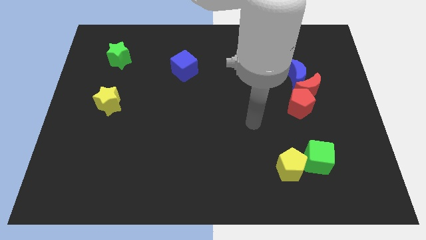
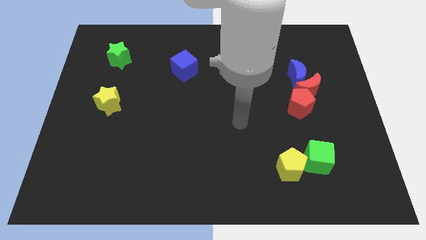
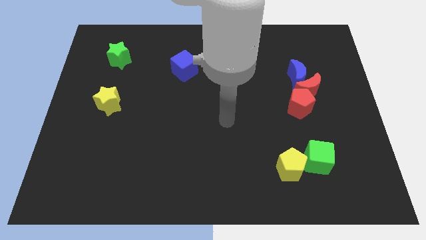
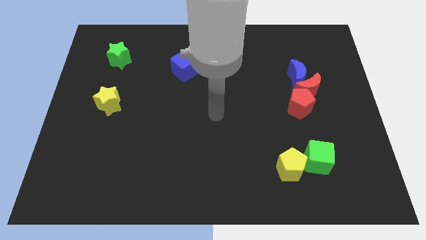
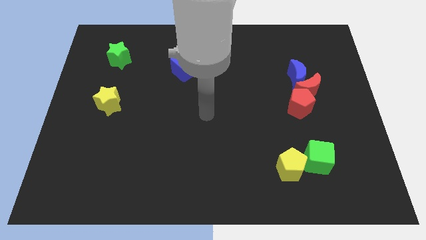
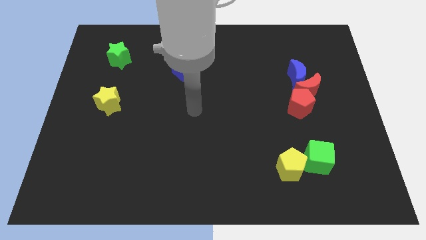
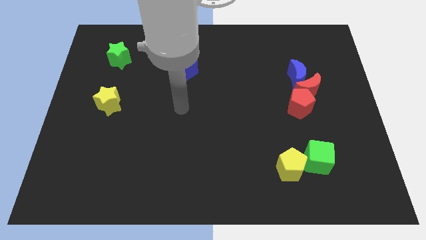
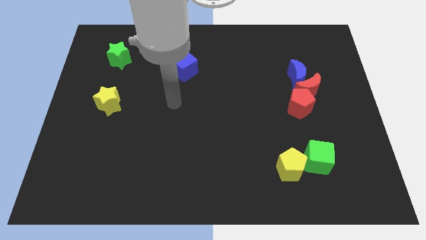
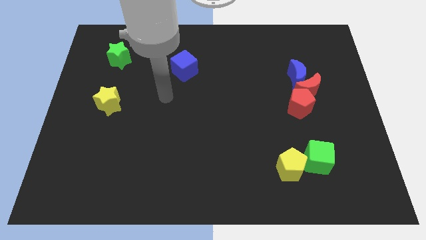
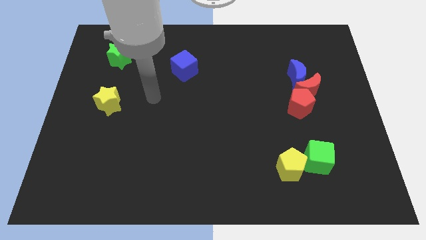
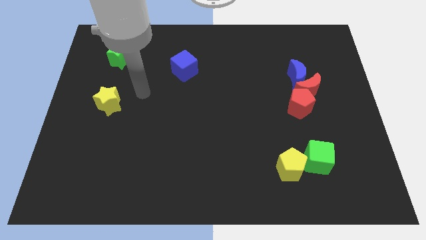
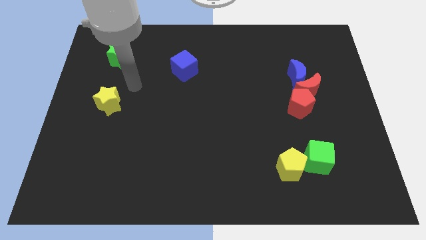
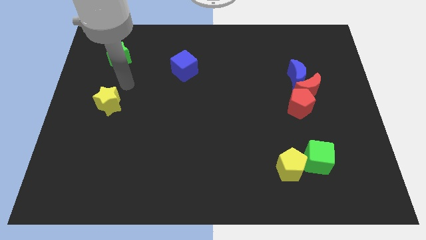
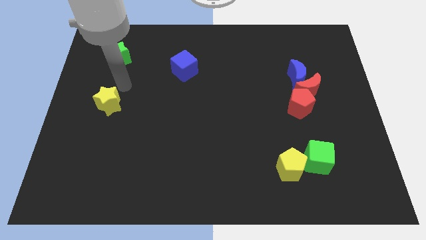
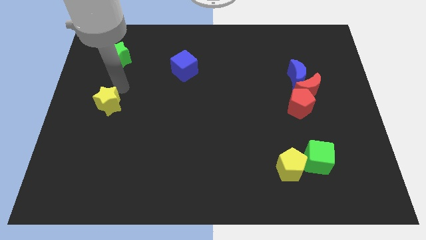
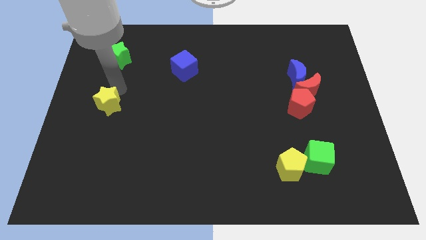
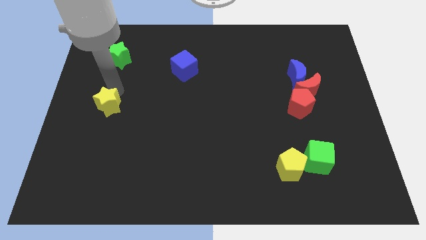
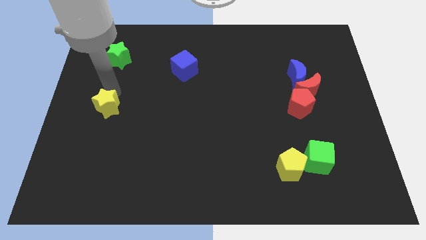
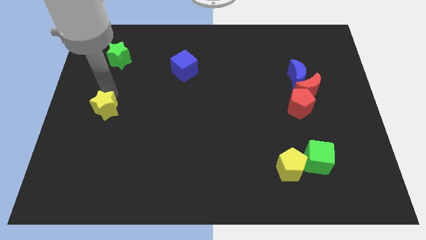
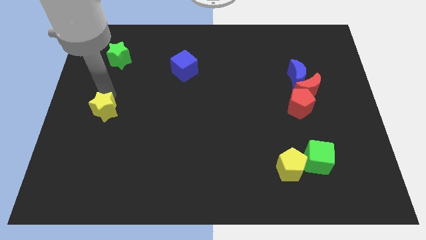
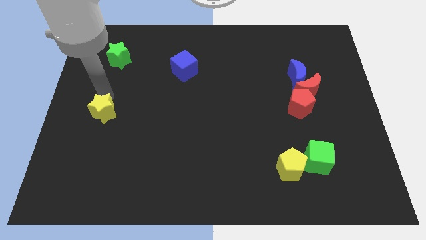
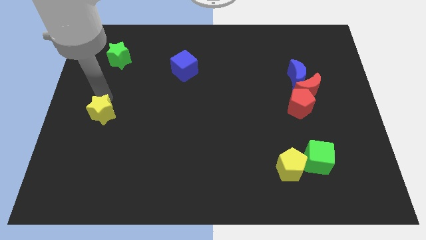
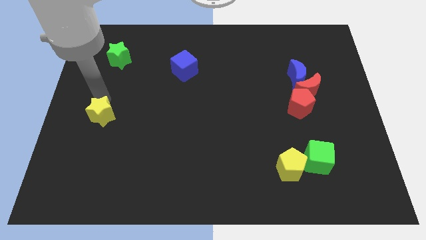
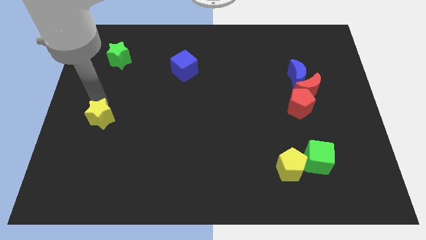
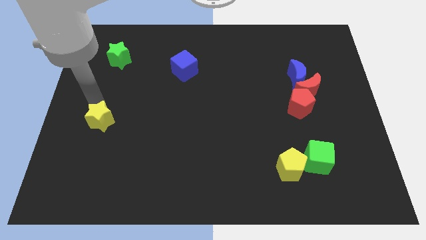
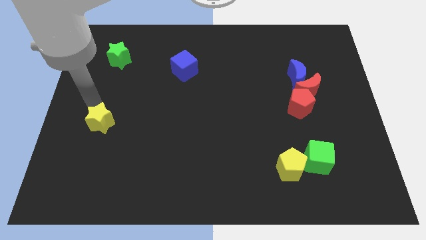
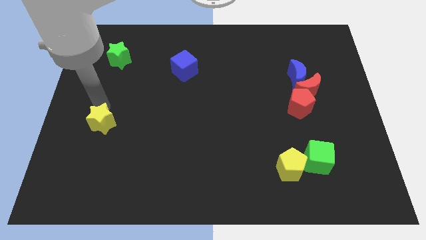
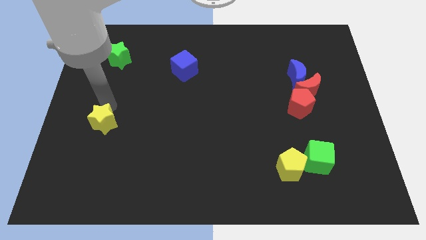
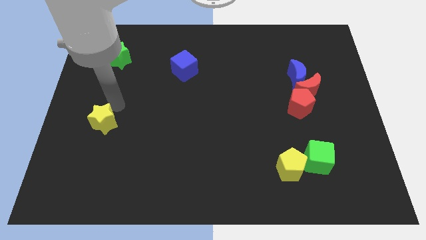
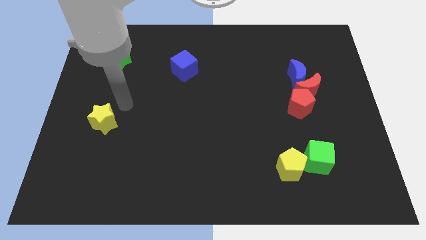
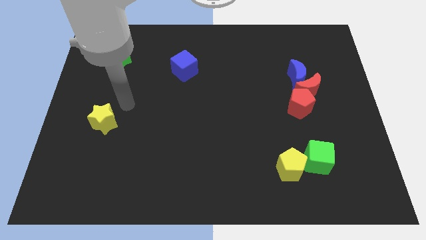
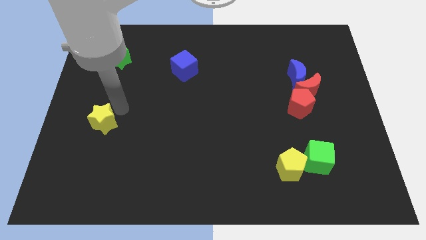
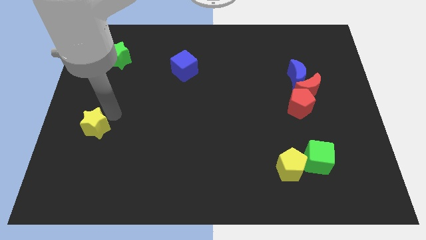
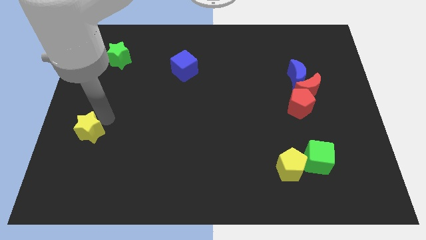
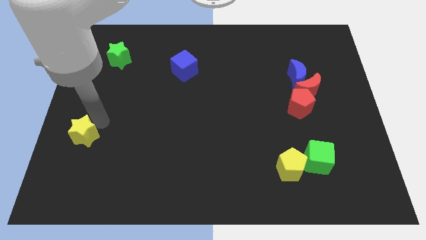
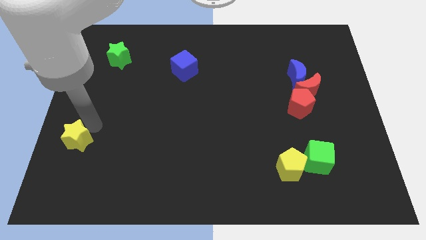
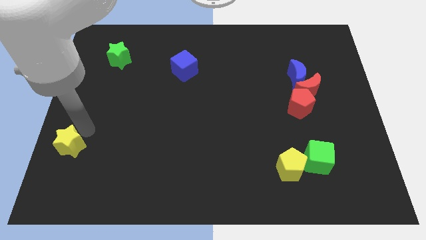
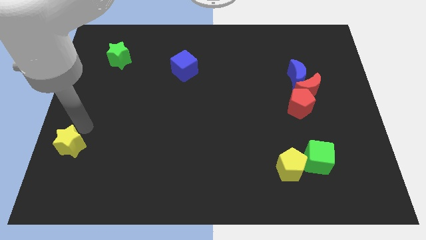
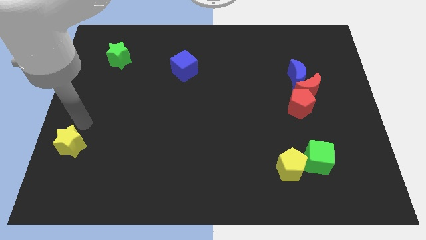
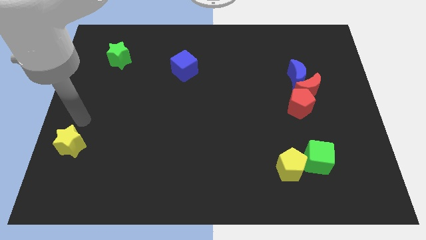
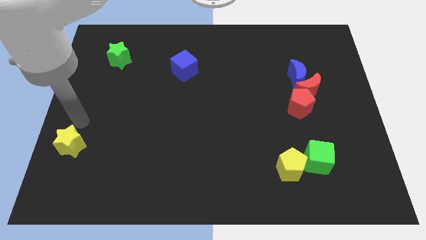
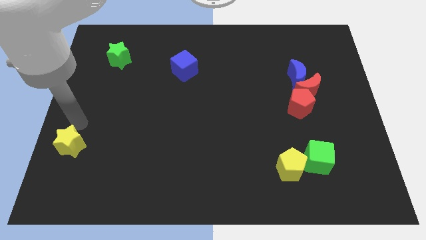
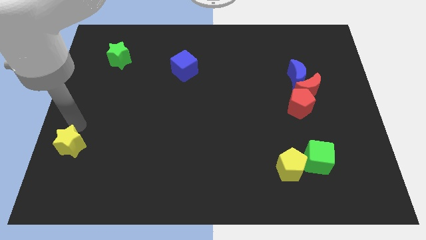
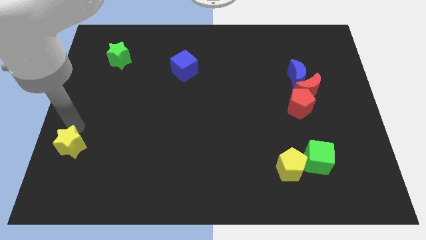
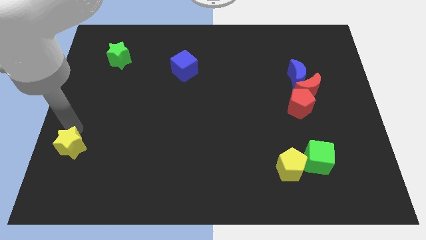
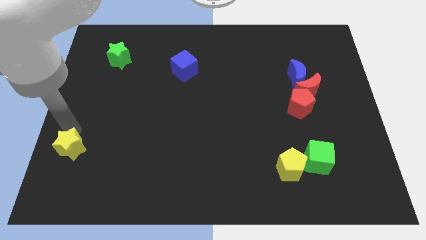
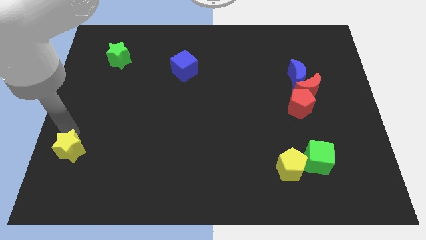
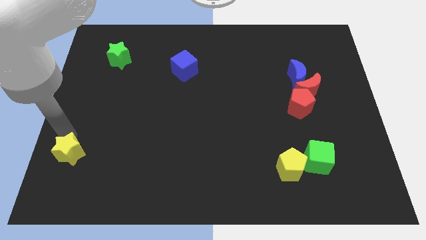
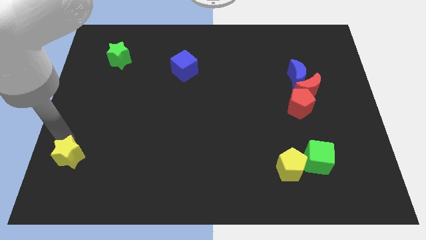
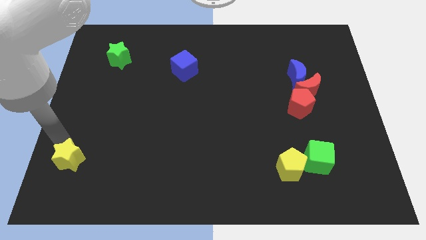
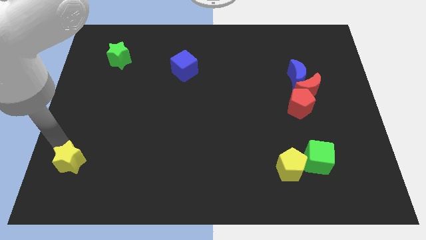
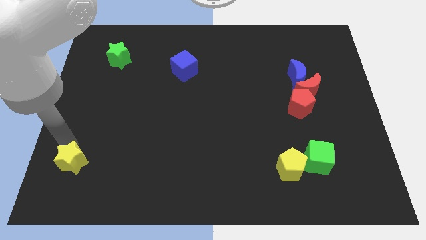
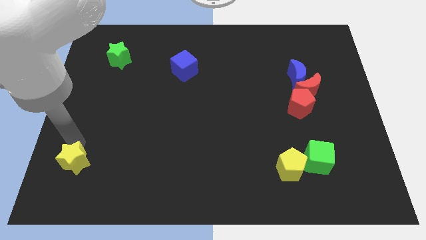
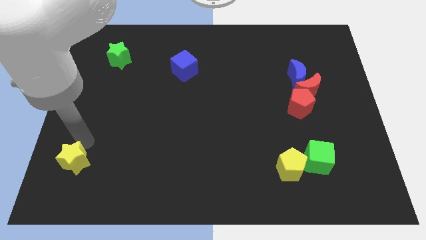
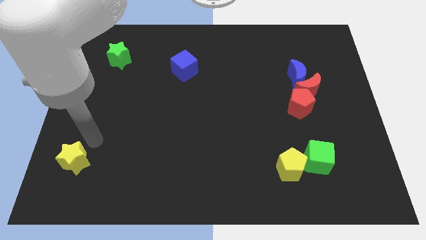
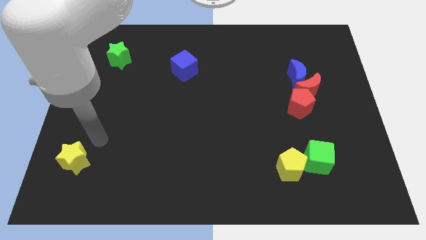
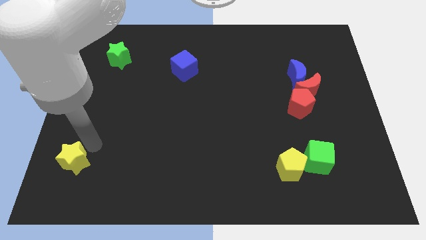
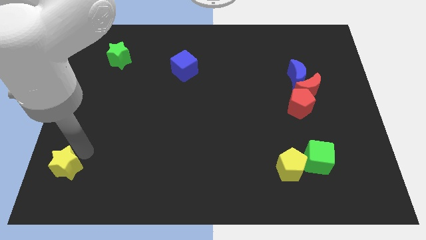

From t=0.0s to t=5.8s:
put the yellow star to the bottom left corner
